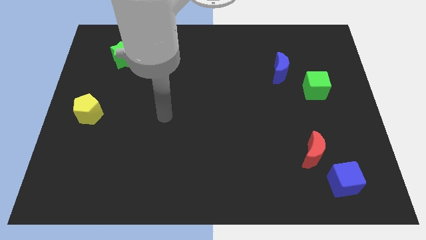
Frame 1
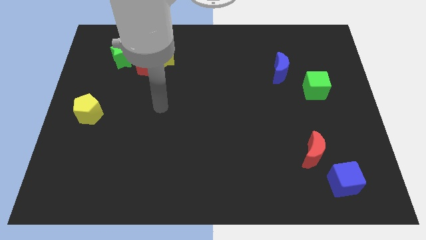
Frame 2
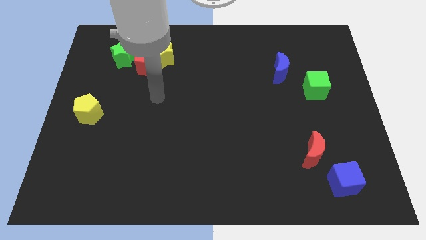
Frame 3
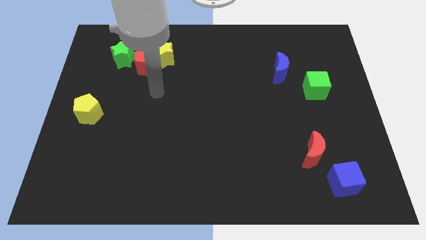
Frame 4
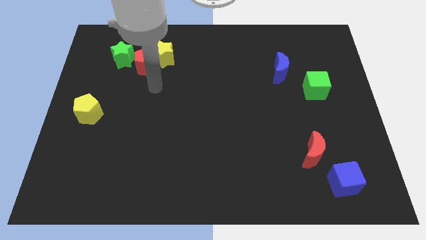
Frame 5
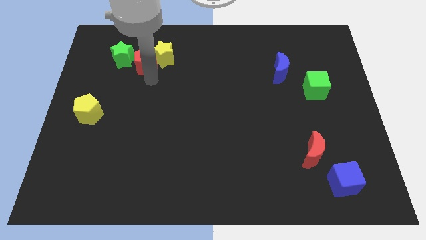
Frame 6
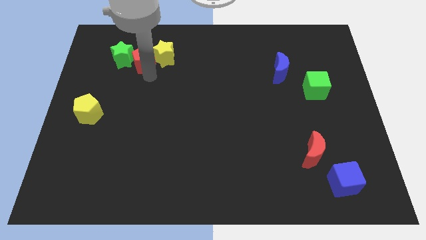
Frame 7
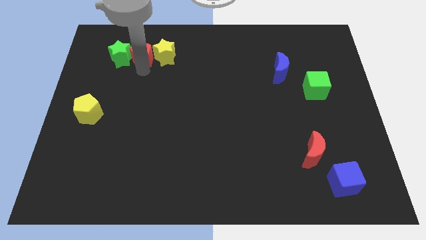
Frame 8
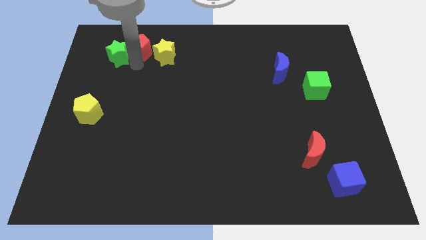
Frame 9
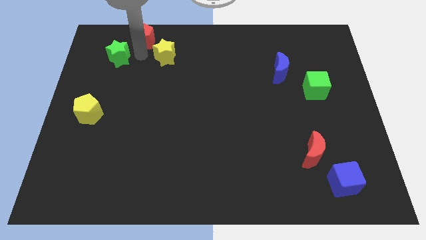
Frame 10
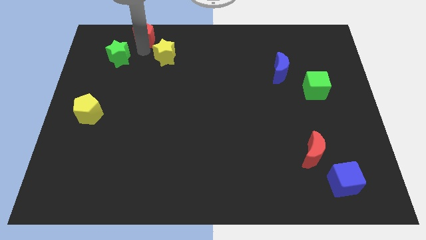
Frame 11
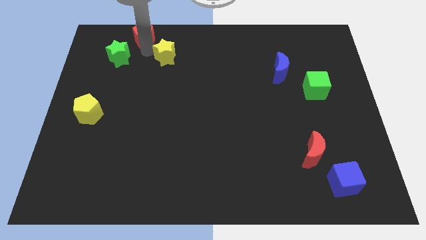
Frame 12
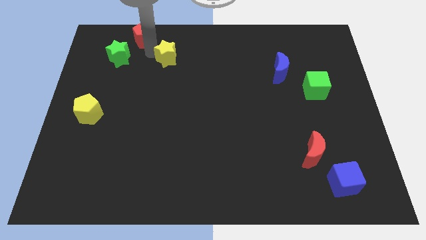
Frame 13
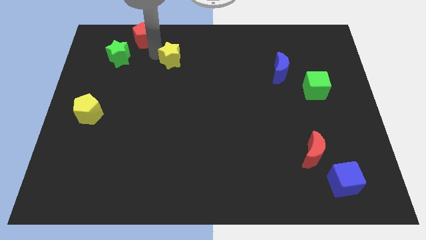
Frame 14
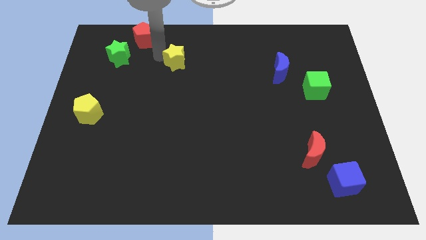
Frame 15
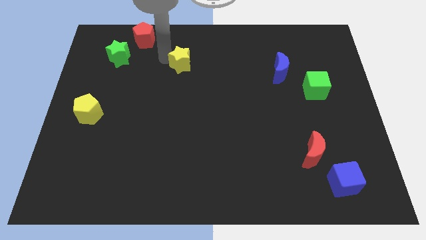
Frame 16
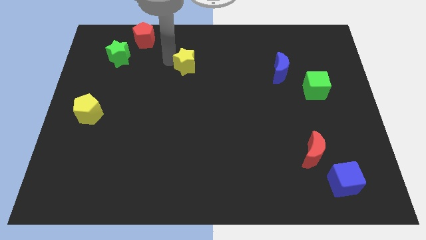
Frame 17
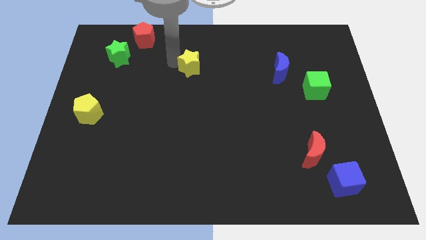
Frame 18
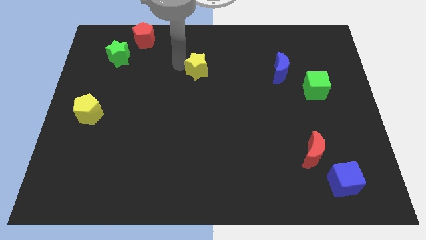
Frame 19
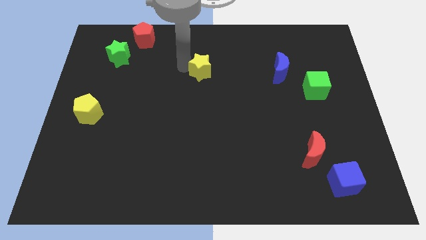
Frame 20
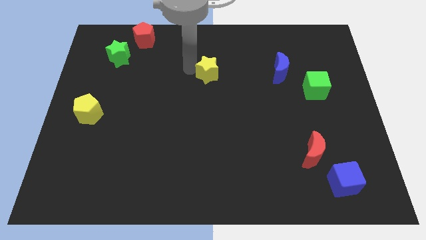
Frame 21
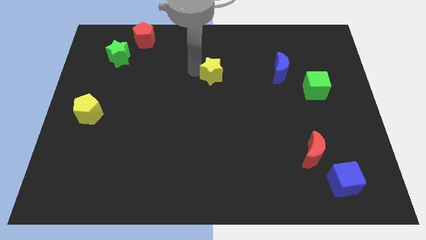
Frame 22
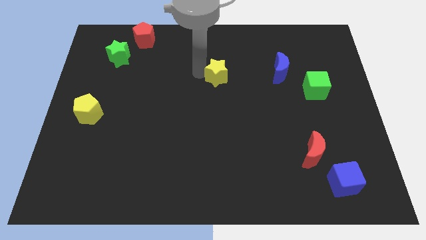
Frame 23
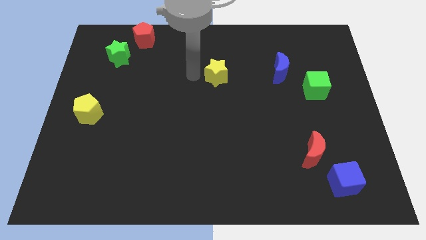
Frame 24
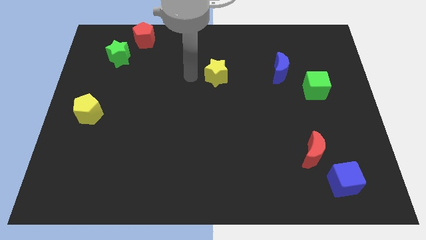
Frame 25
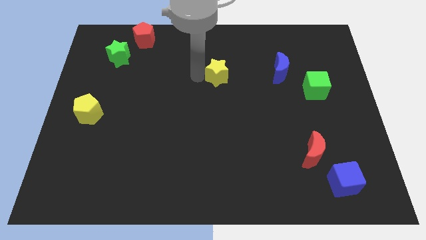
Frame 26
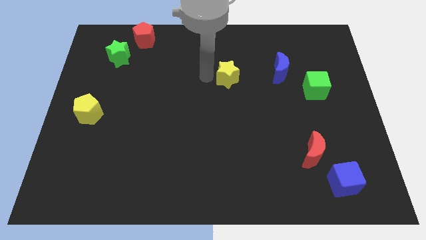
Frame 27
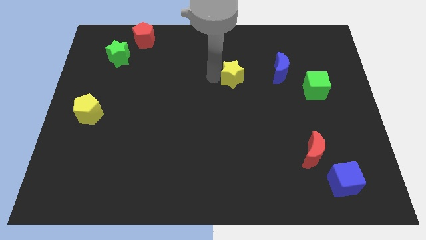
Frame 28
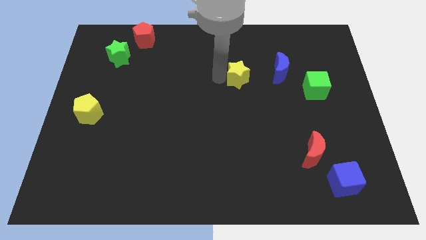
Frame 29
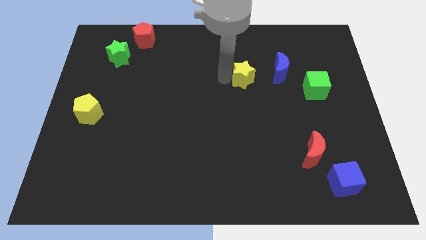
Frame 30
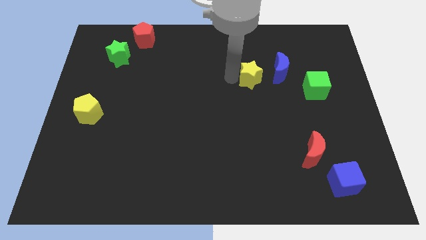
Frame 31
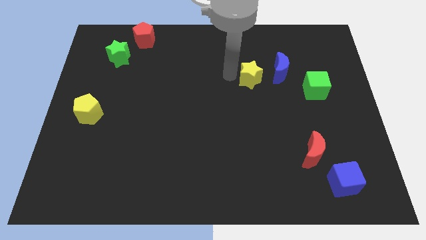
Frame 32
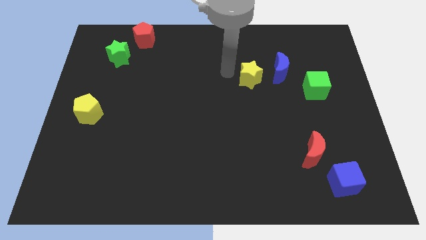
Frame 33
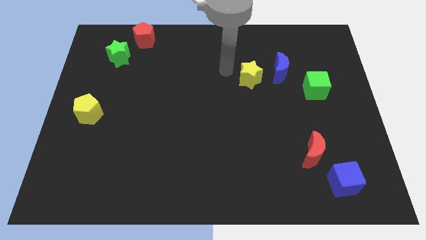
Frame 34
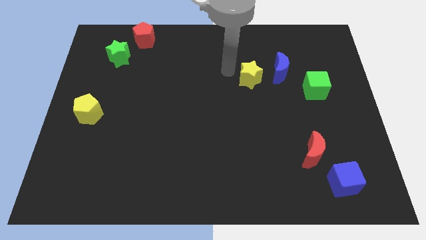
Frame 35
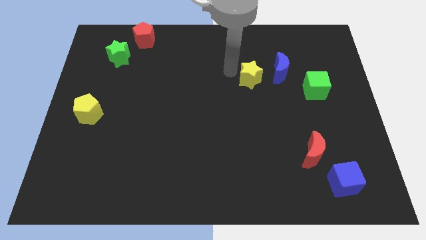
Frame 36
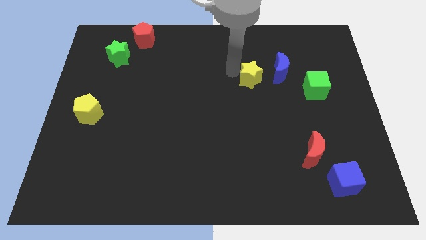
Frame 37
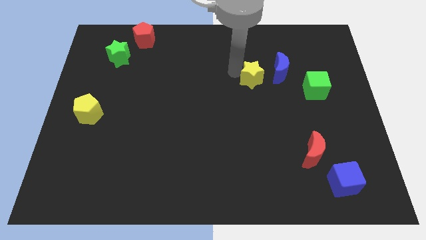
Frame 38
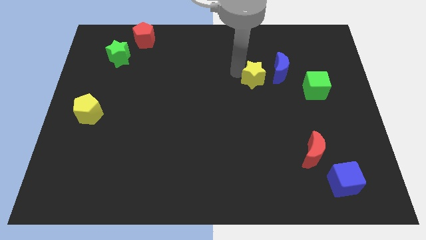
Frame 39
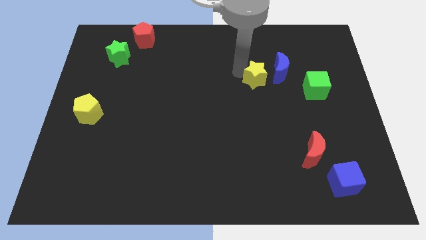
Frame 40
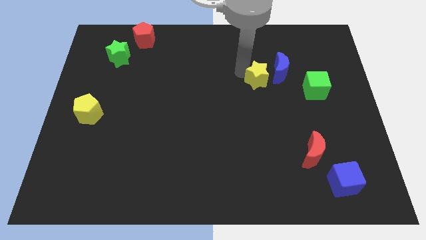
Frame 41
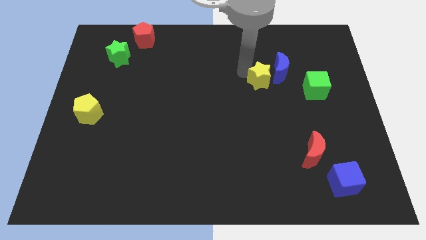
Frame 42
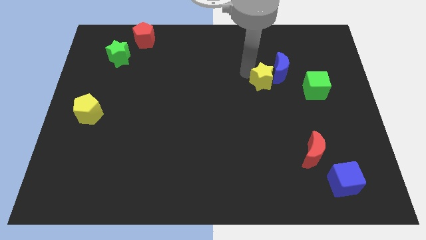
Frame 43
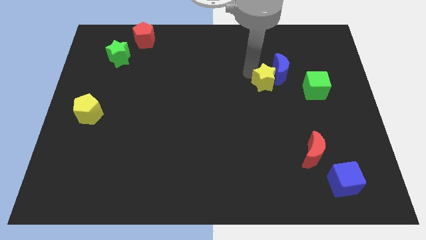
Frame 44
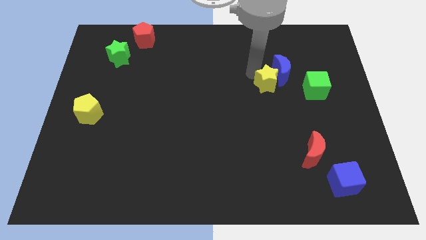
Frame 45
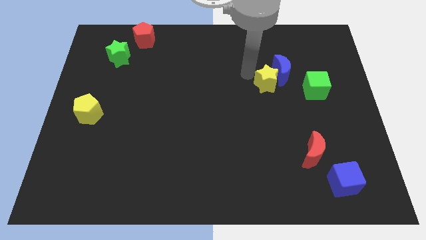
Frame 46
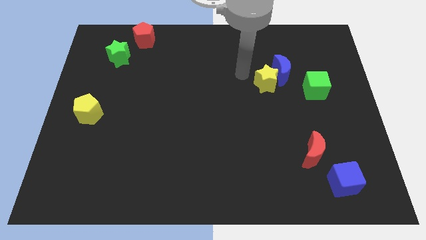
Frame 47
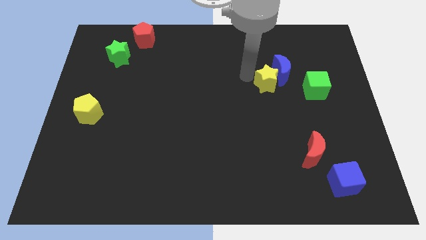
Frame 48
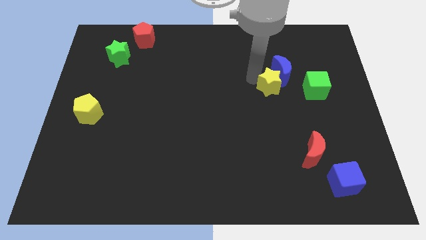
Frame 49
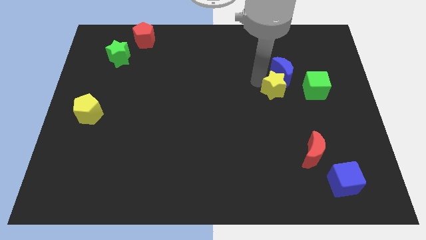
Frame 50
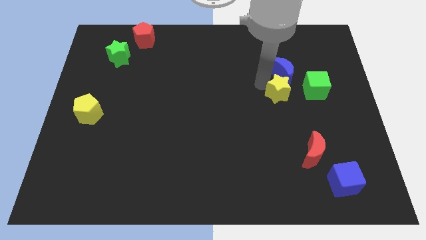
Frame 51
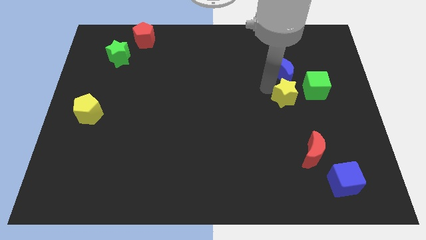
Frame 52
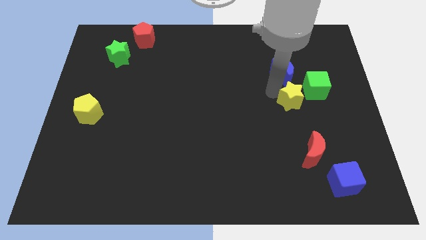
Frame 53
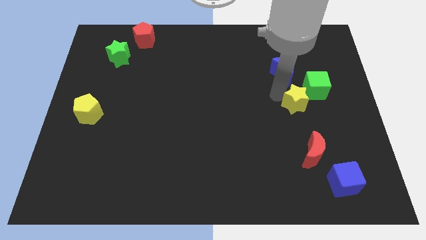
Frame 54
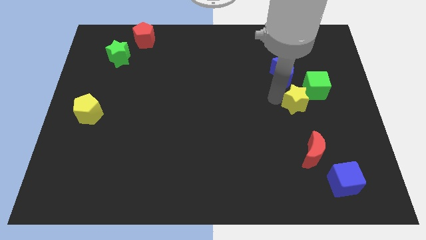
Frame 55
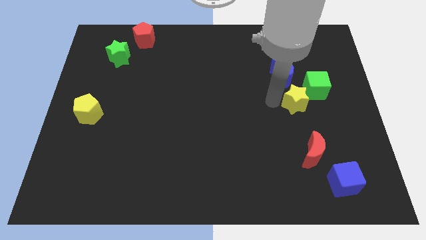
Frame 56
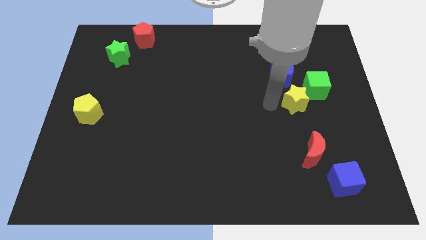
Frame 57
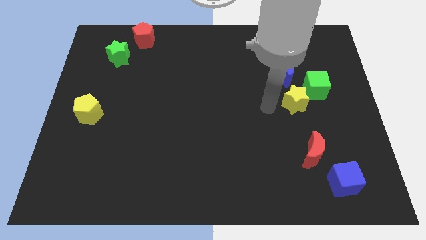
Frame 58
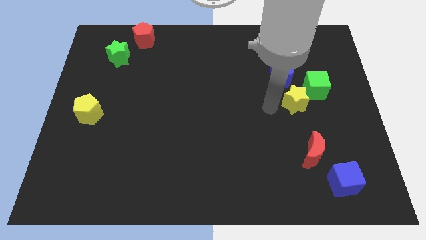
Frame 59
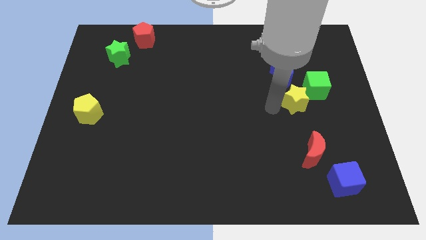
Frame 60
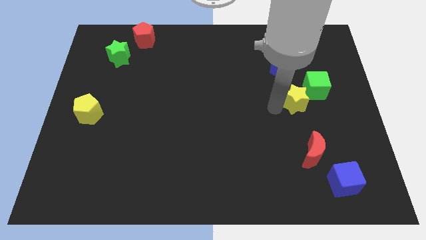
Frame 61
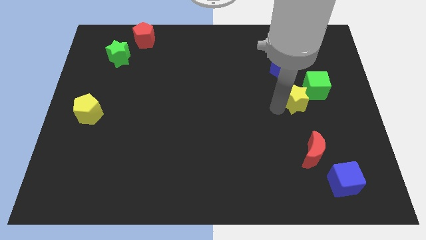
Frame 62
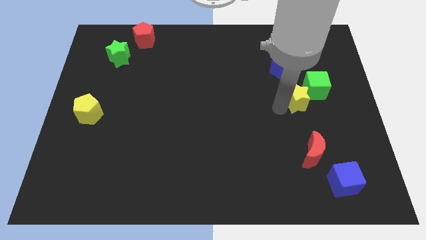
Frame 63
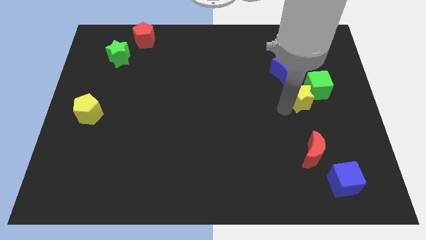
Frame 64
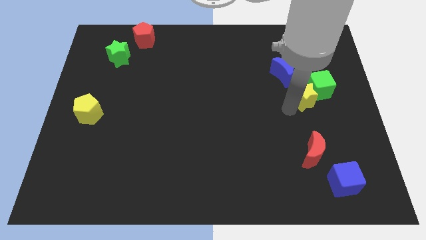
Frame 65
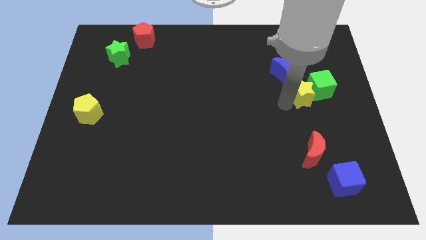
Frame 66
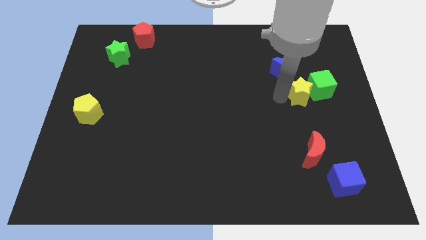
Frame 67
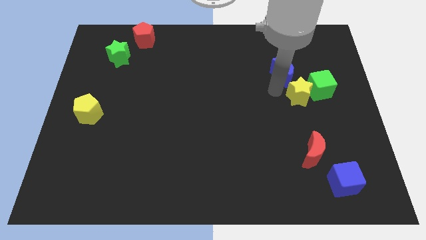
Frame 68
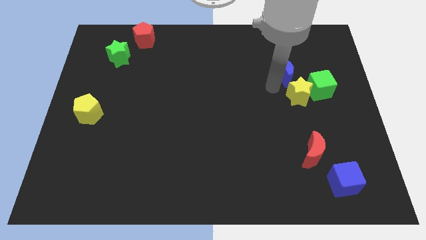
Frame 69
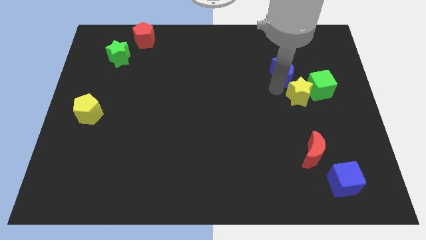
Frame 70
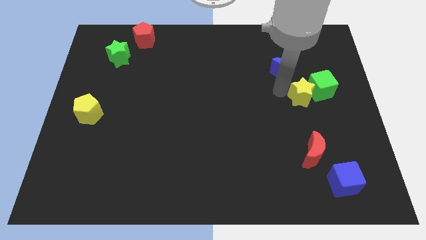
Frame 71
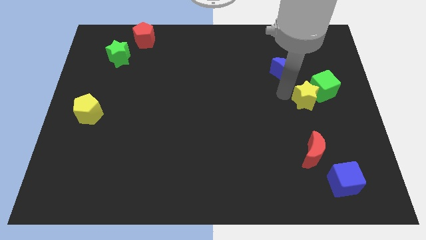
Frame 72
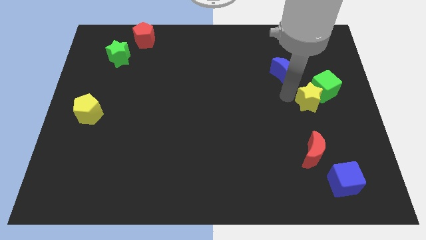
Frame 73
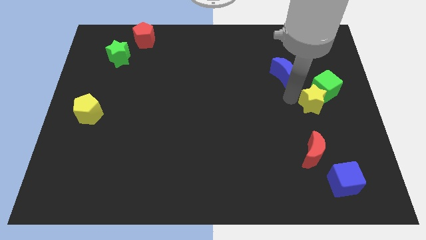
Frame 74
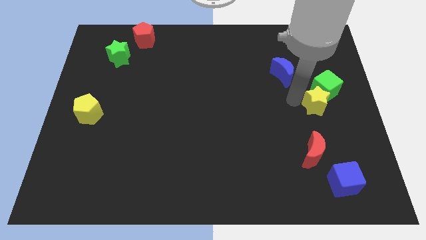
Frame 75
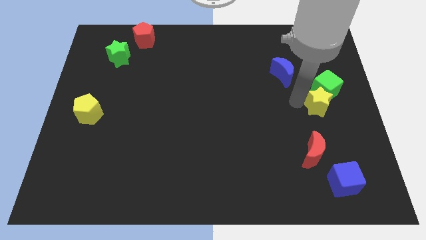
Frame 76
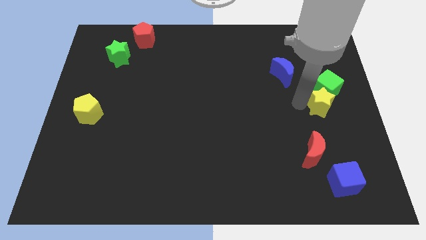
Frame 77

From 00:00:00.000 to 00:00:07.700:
push the yellow star to the right side of the board
